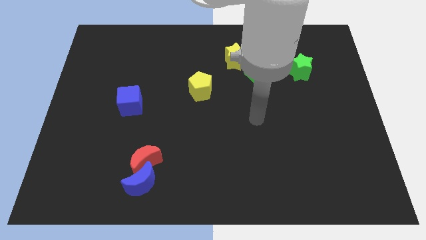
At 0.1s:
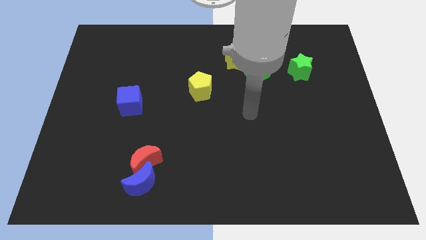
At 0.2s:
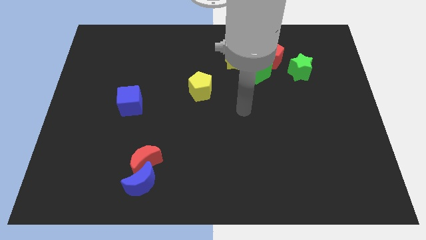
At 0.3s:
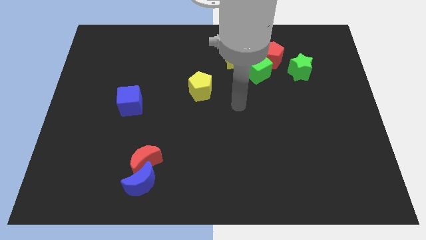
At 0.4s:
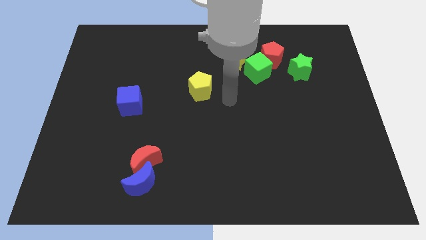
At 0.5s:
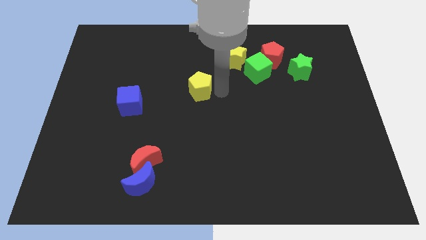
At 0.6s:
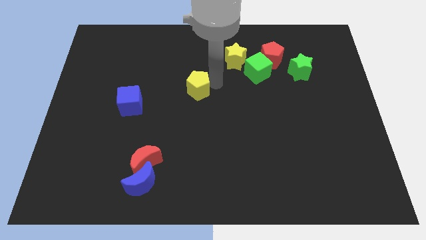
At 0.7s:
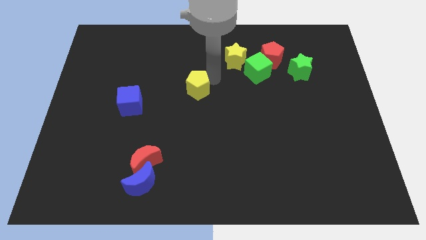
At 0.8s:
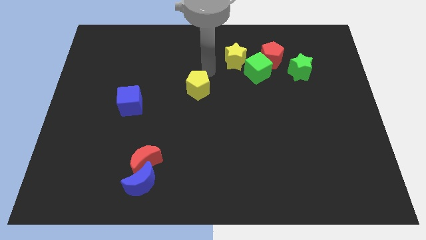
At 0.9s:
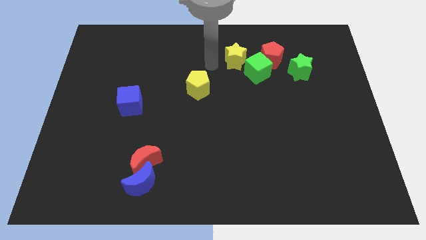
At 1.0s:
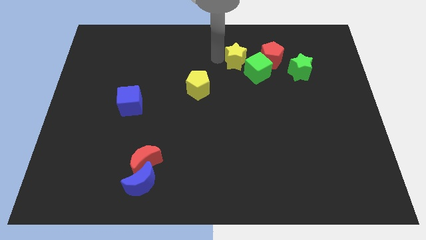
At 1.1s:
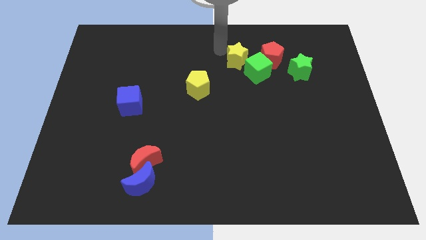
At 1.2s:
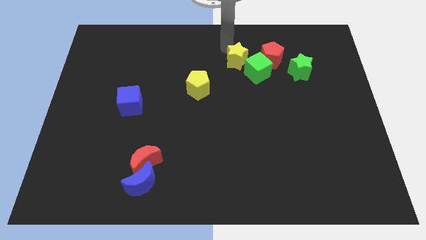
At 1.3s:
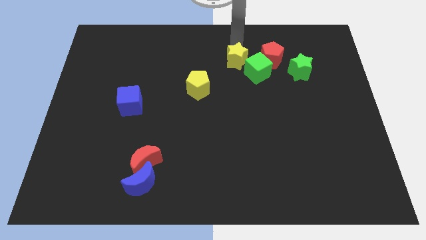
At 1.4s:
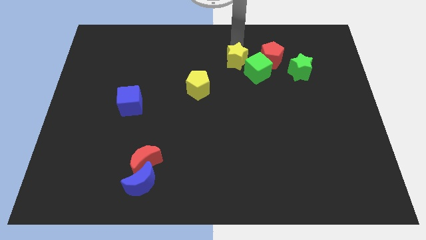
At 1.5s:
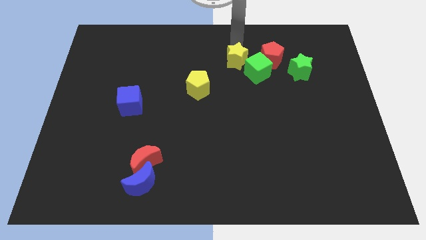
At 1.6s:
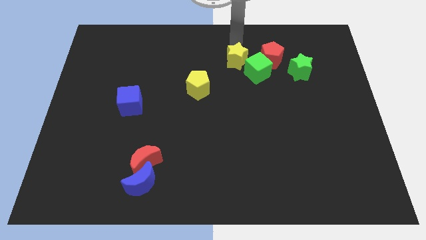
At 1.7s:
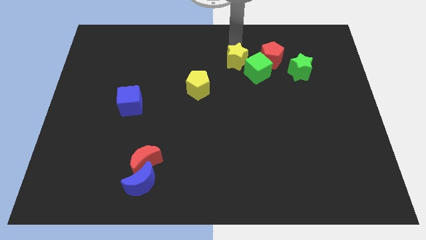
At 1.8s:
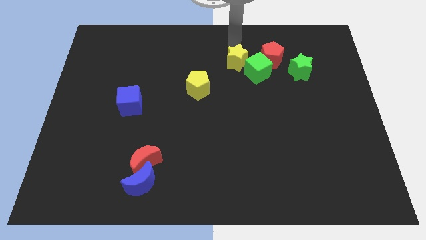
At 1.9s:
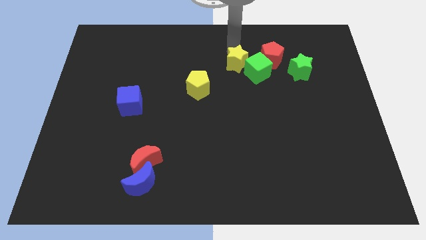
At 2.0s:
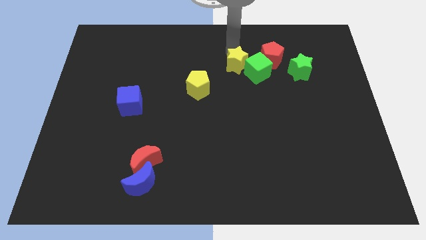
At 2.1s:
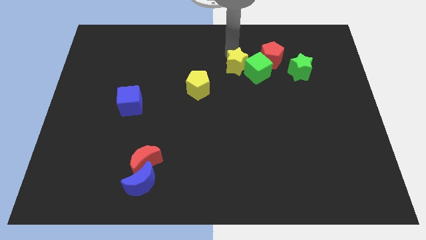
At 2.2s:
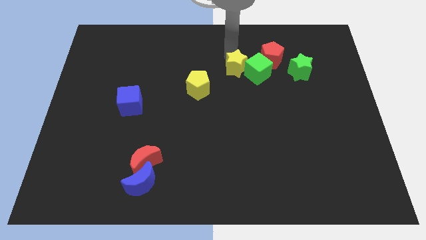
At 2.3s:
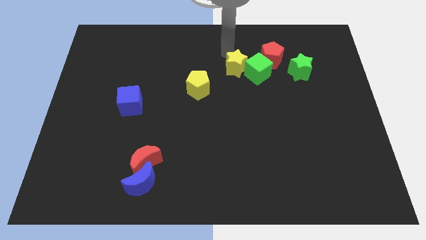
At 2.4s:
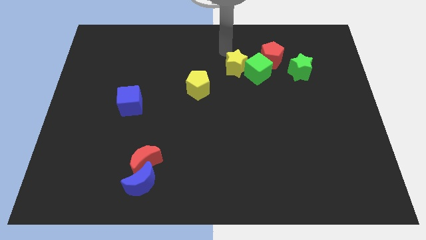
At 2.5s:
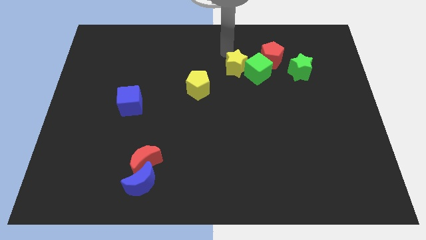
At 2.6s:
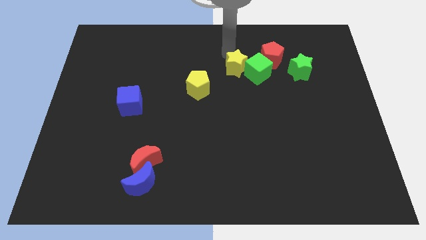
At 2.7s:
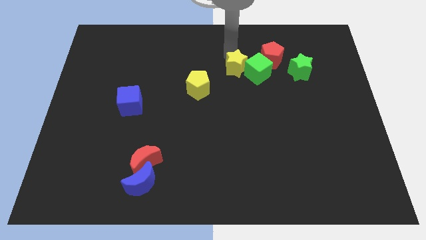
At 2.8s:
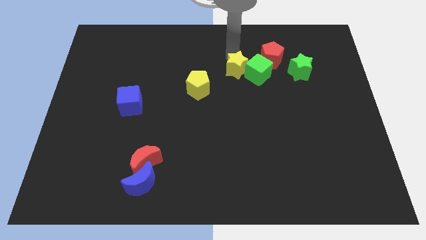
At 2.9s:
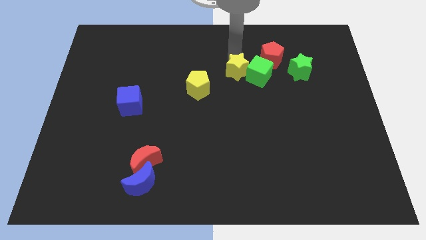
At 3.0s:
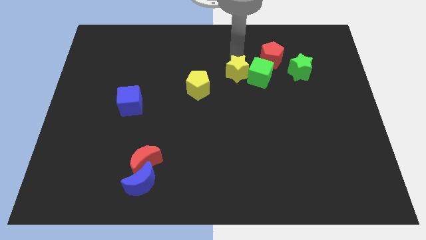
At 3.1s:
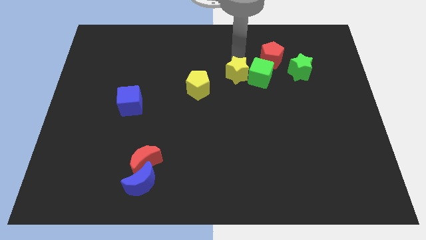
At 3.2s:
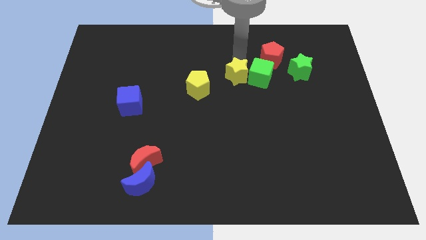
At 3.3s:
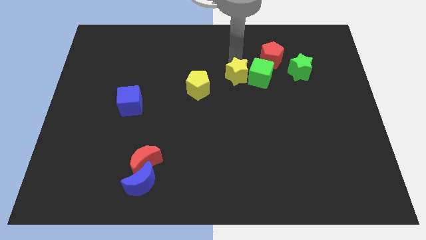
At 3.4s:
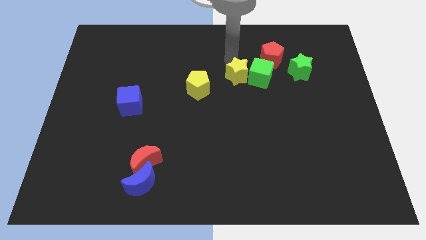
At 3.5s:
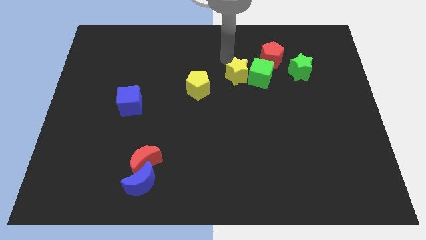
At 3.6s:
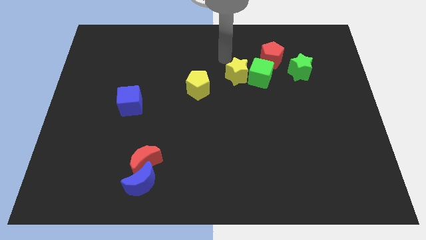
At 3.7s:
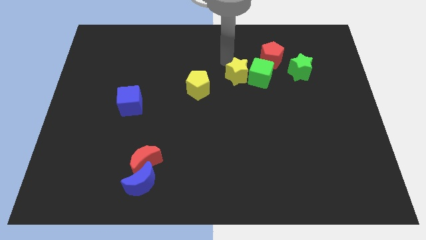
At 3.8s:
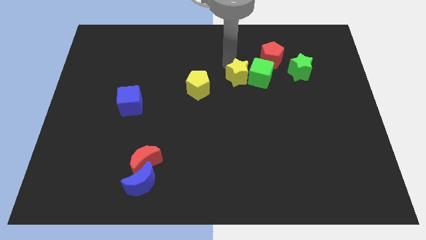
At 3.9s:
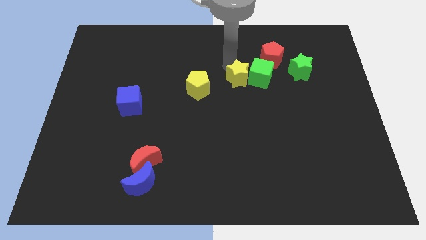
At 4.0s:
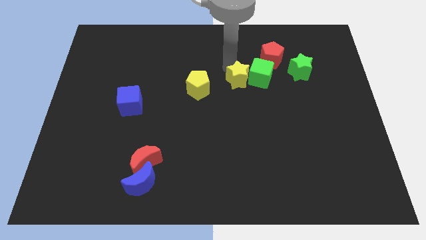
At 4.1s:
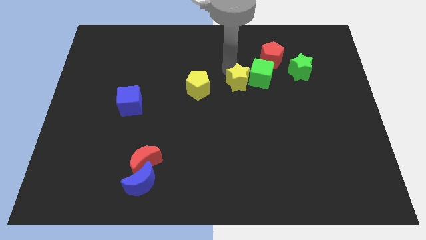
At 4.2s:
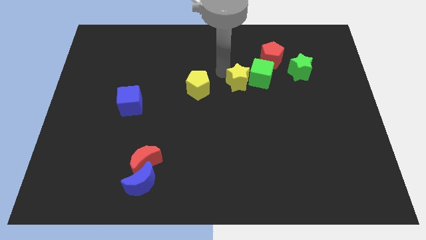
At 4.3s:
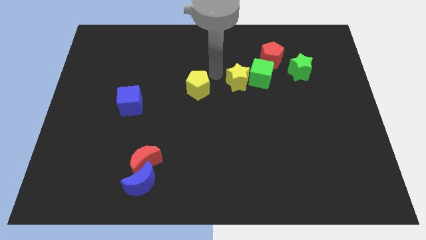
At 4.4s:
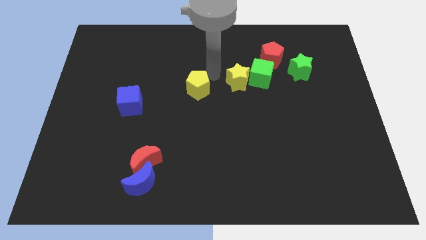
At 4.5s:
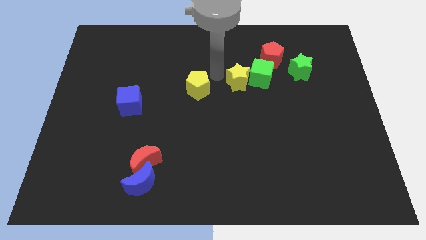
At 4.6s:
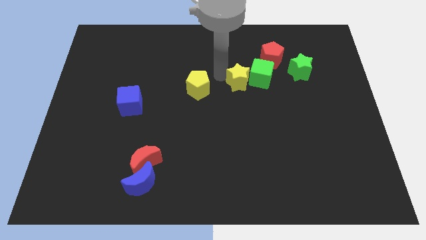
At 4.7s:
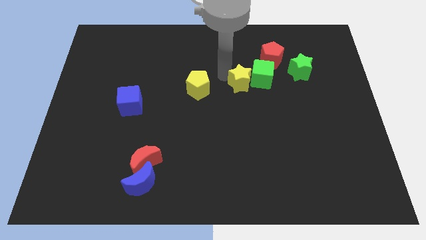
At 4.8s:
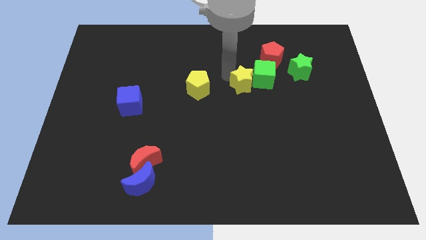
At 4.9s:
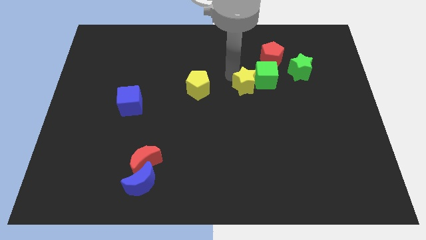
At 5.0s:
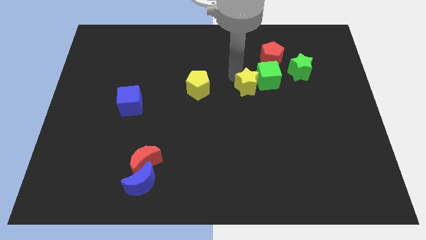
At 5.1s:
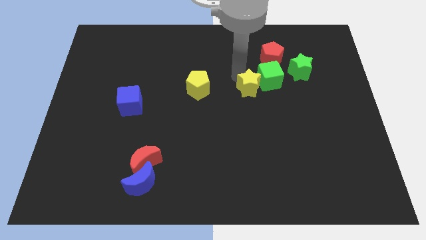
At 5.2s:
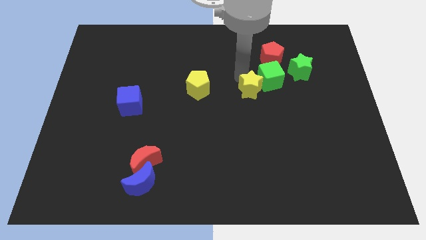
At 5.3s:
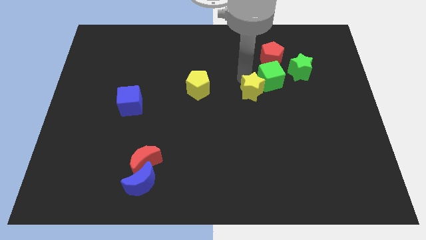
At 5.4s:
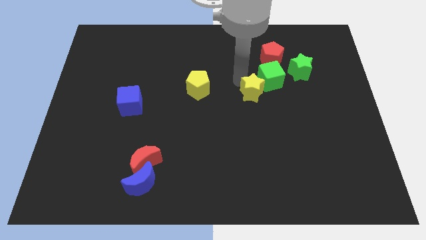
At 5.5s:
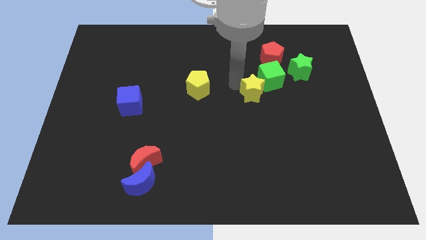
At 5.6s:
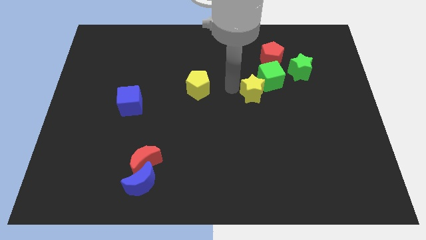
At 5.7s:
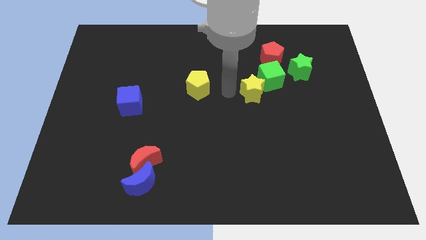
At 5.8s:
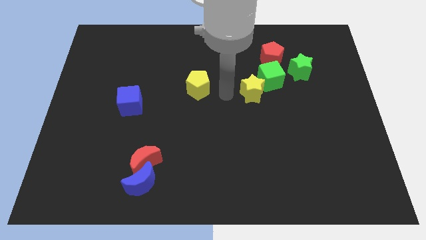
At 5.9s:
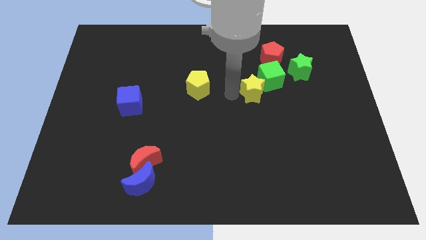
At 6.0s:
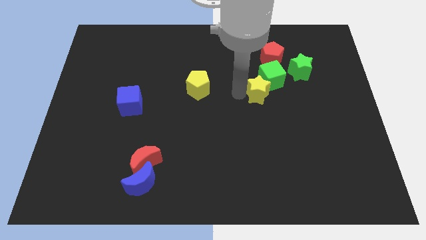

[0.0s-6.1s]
push the yellow star below the red pentagon

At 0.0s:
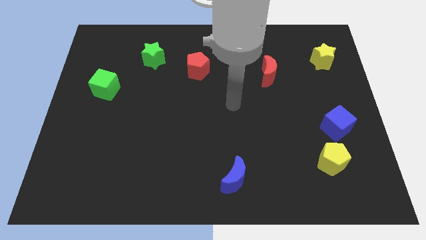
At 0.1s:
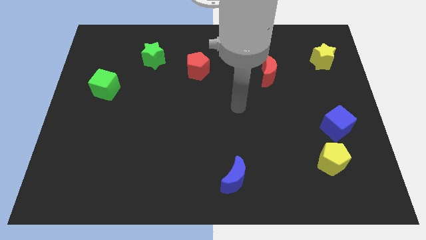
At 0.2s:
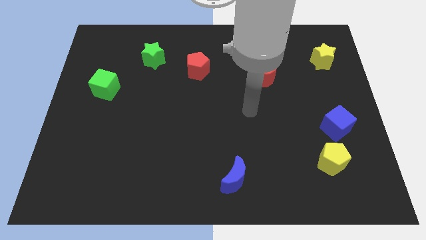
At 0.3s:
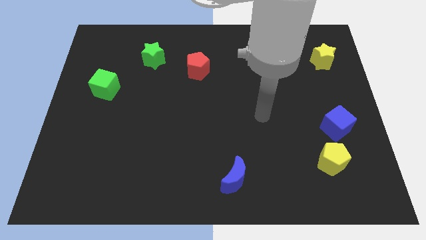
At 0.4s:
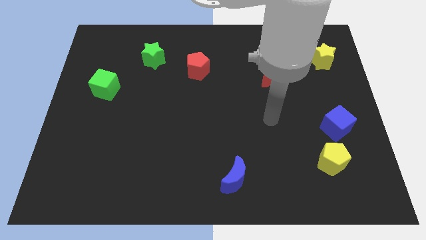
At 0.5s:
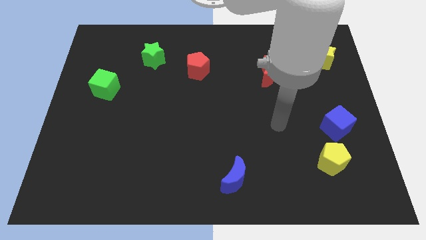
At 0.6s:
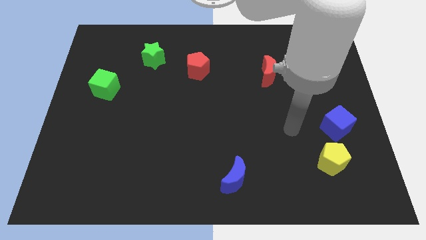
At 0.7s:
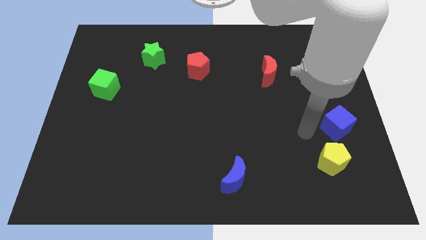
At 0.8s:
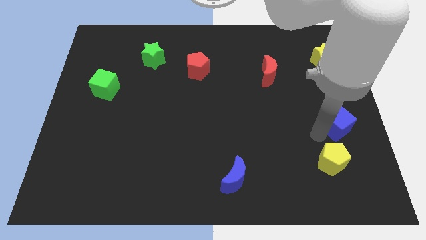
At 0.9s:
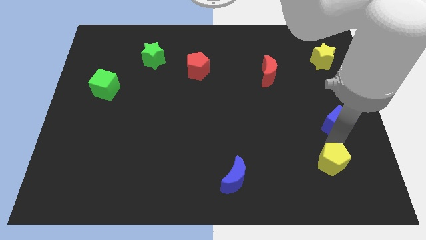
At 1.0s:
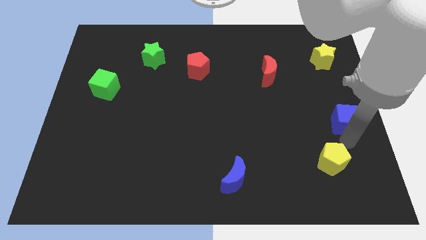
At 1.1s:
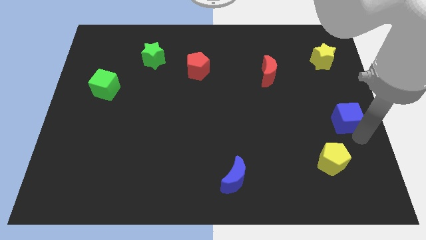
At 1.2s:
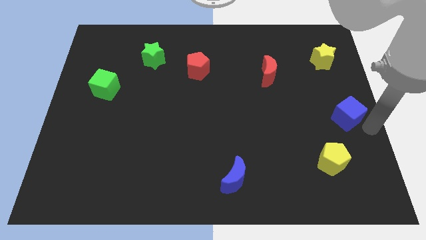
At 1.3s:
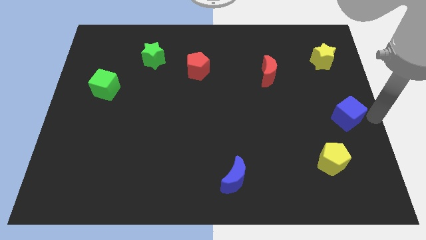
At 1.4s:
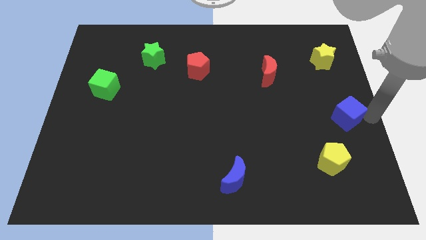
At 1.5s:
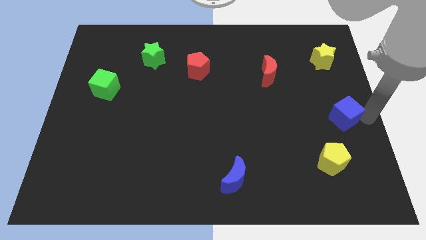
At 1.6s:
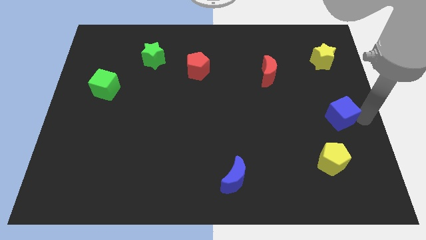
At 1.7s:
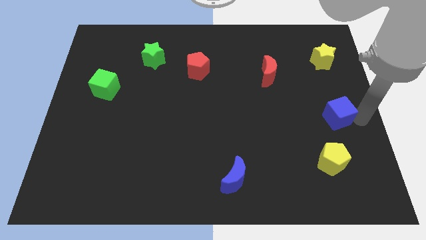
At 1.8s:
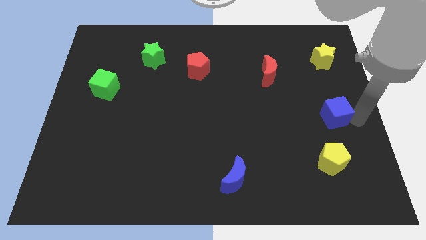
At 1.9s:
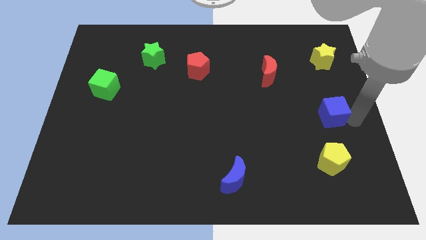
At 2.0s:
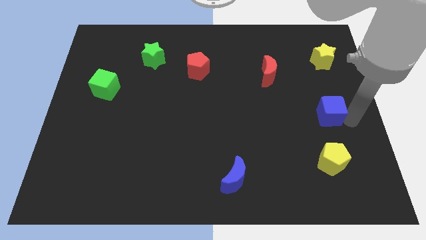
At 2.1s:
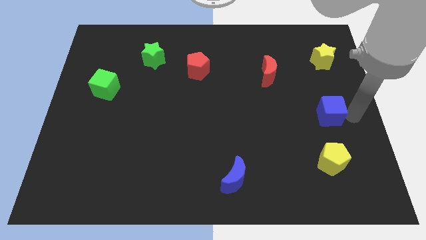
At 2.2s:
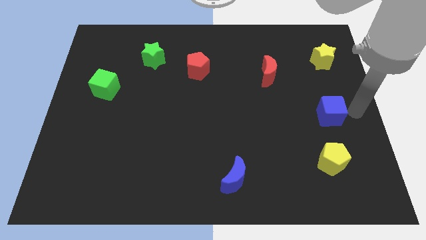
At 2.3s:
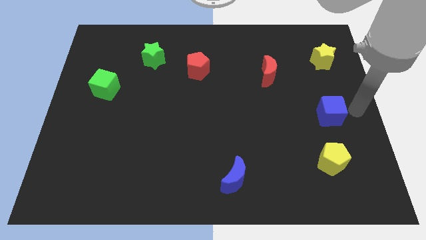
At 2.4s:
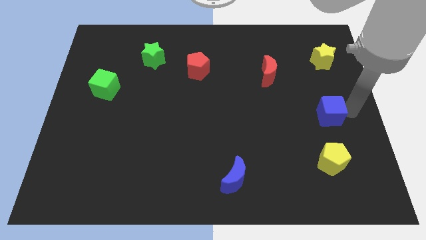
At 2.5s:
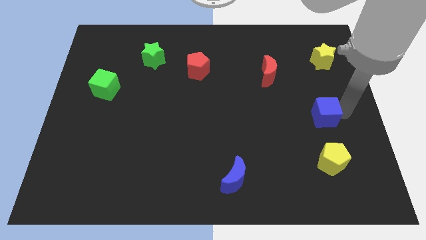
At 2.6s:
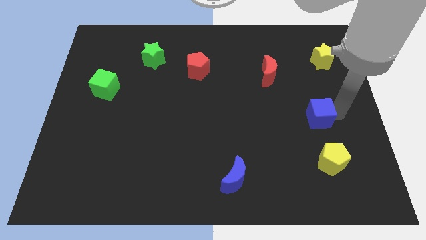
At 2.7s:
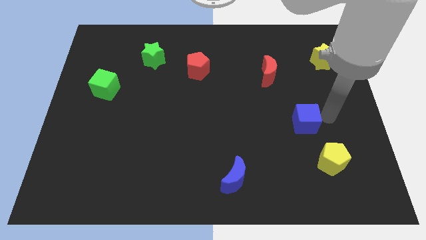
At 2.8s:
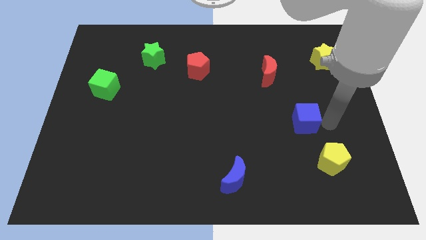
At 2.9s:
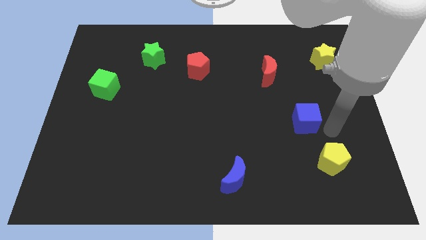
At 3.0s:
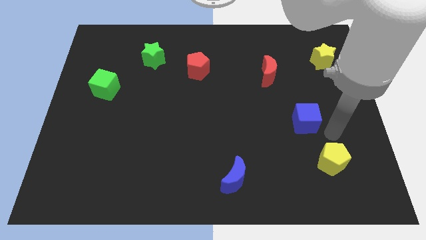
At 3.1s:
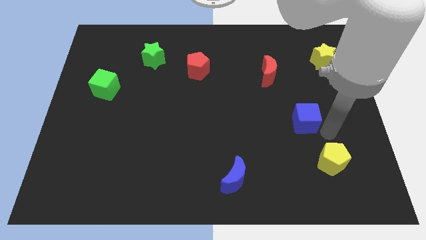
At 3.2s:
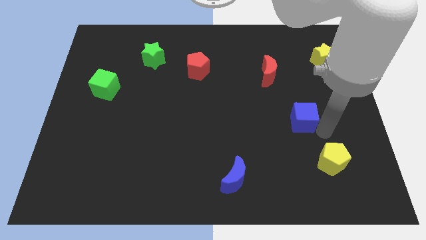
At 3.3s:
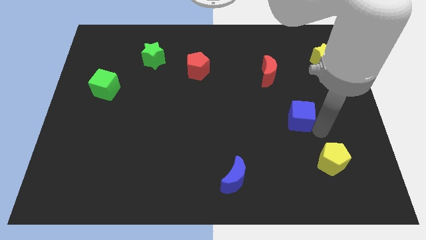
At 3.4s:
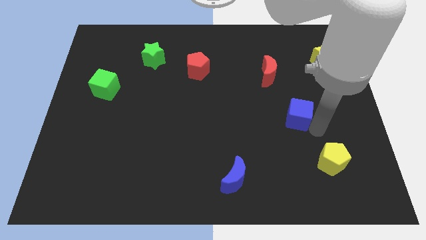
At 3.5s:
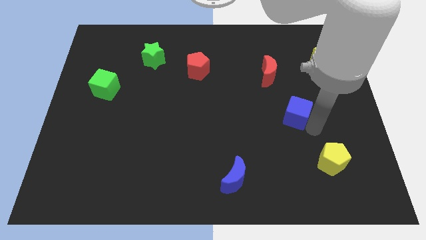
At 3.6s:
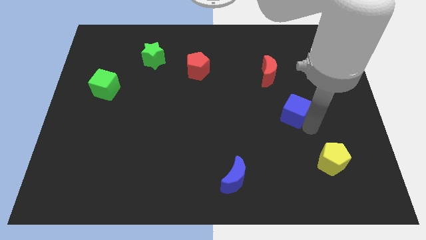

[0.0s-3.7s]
move the blue cube to the bottom of the red moon
